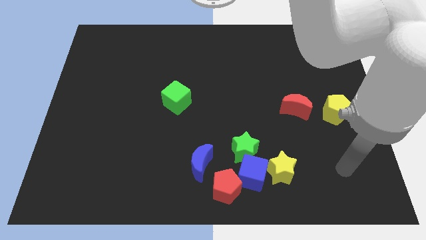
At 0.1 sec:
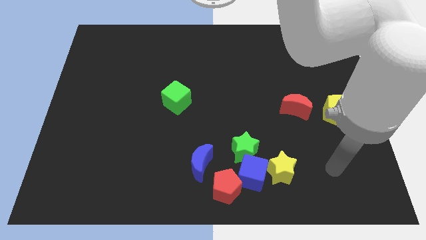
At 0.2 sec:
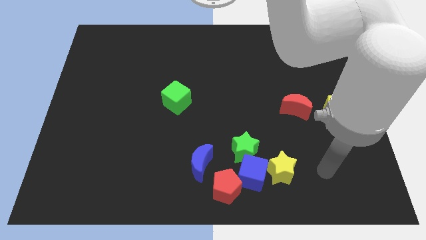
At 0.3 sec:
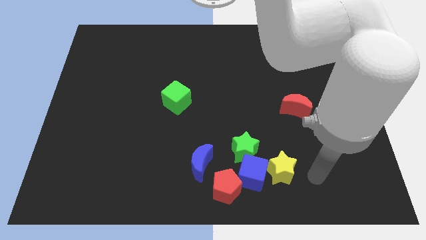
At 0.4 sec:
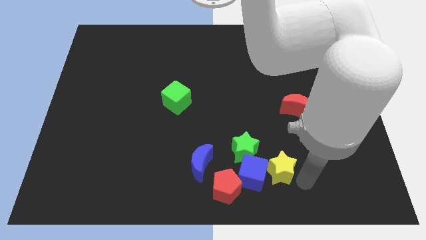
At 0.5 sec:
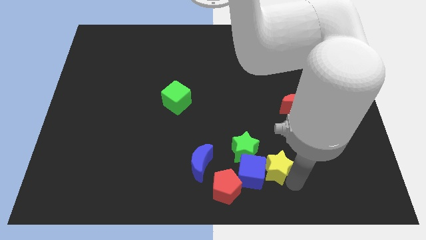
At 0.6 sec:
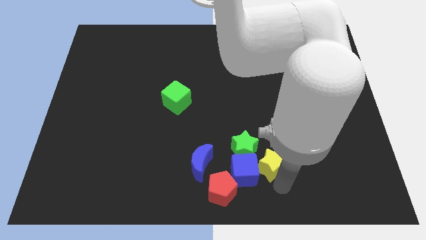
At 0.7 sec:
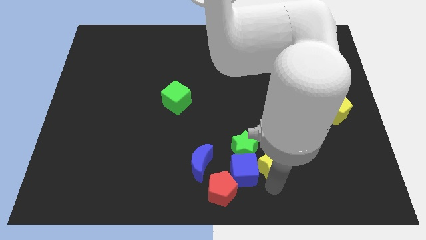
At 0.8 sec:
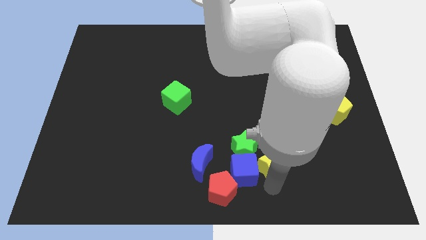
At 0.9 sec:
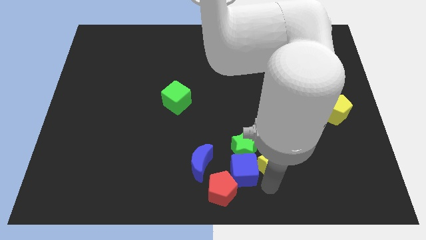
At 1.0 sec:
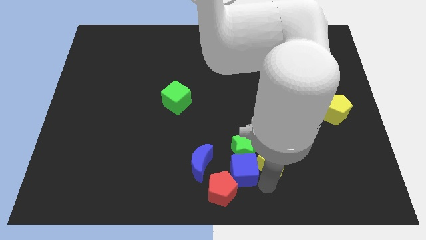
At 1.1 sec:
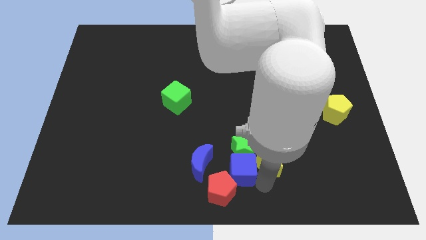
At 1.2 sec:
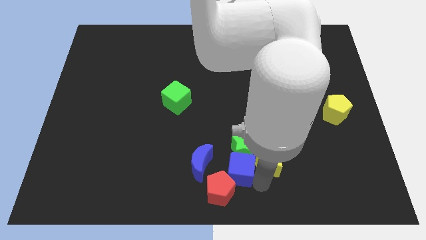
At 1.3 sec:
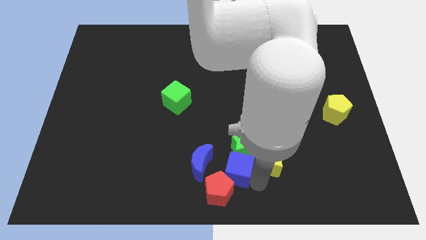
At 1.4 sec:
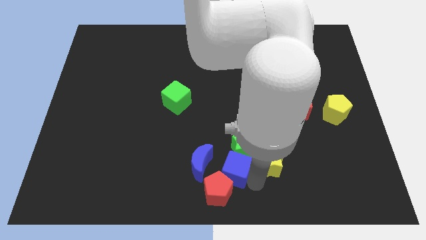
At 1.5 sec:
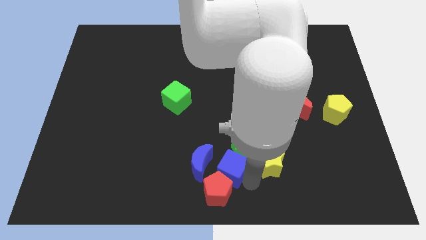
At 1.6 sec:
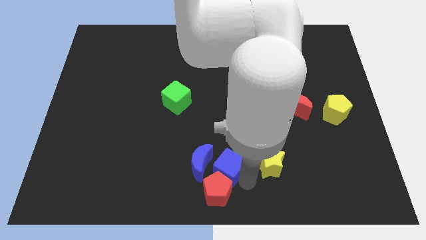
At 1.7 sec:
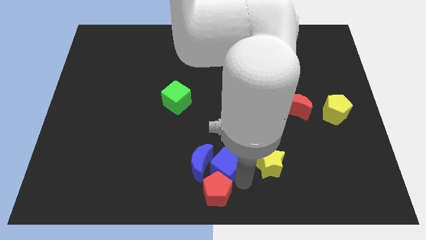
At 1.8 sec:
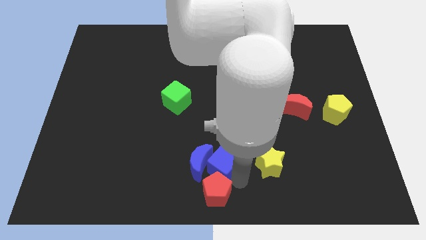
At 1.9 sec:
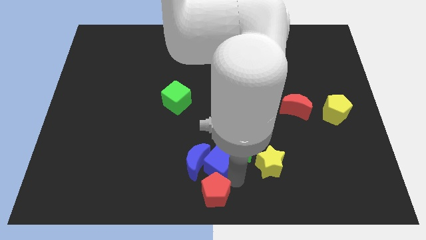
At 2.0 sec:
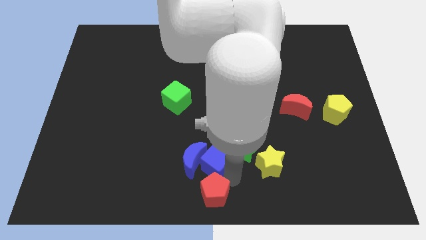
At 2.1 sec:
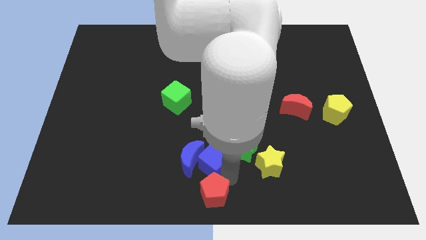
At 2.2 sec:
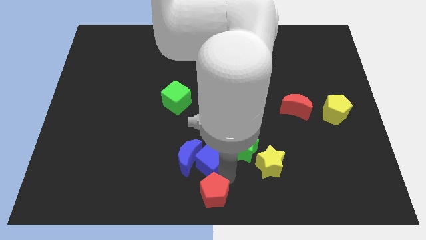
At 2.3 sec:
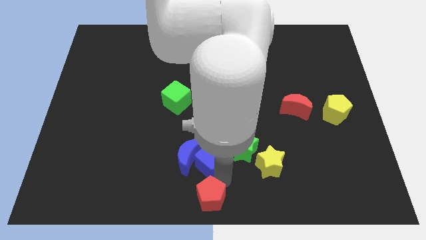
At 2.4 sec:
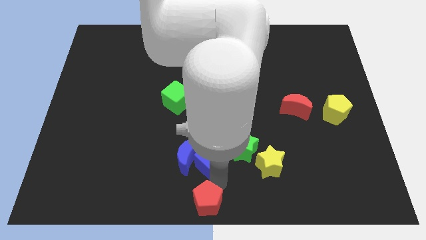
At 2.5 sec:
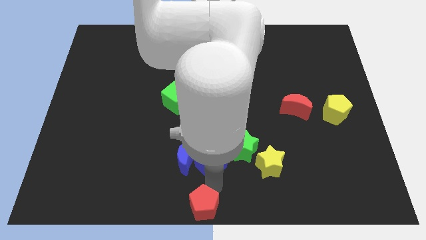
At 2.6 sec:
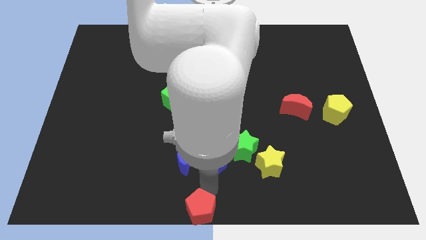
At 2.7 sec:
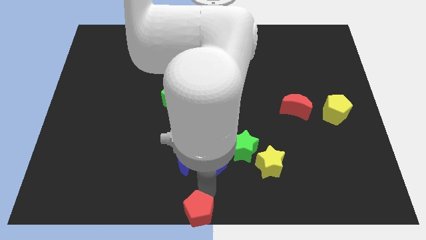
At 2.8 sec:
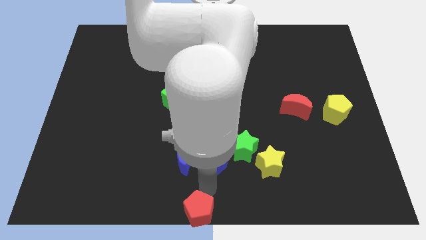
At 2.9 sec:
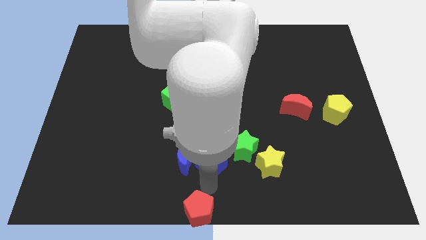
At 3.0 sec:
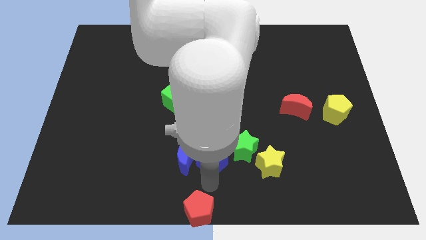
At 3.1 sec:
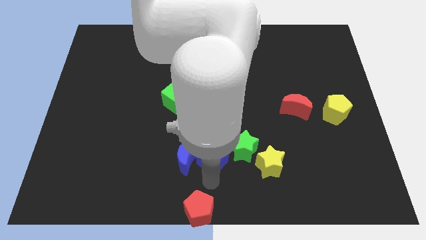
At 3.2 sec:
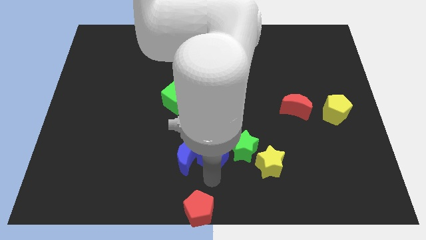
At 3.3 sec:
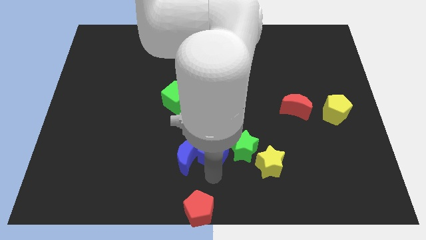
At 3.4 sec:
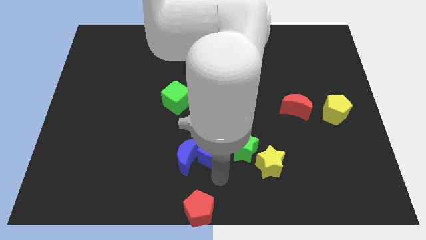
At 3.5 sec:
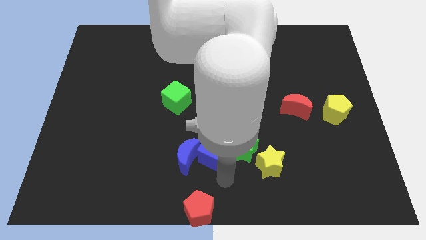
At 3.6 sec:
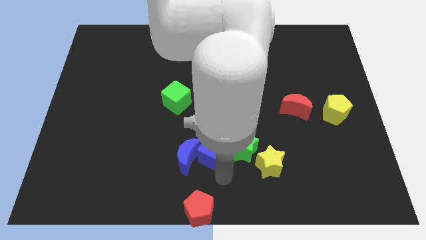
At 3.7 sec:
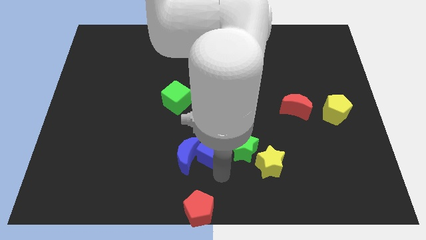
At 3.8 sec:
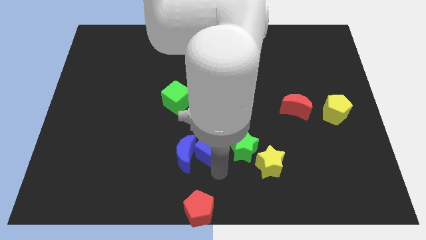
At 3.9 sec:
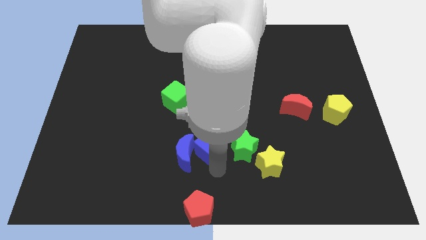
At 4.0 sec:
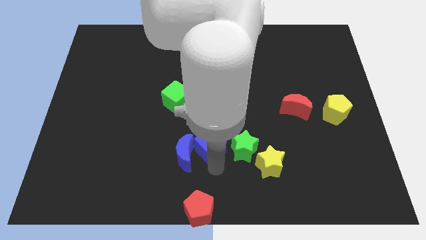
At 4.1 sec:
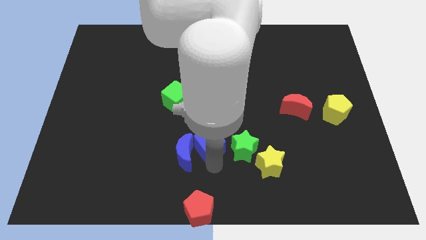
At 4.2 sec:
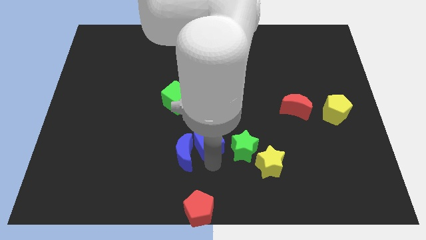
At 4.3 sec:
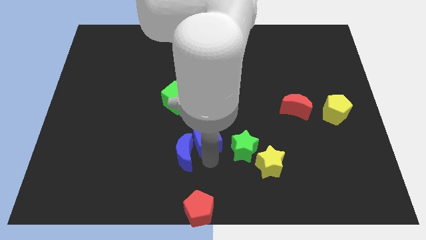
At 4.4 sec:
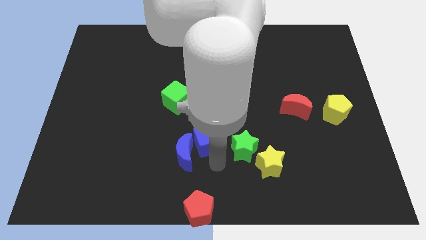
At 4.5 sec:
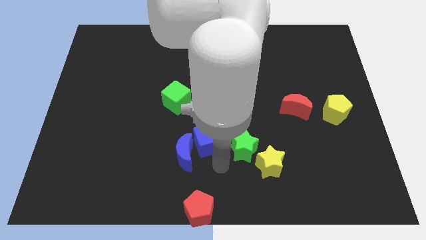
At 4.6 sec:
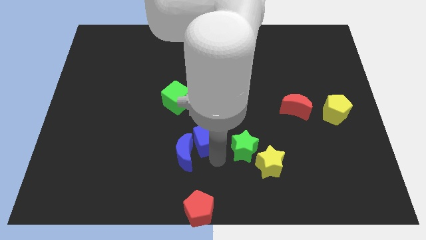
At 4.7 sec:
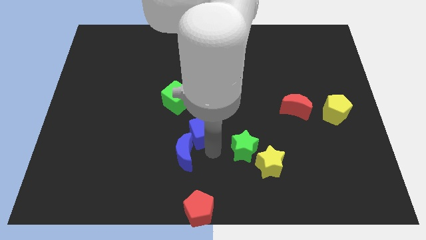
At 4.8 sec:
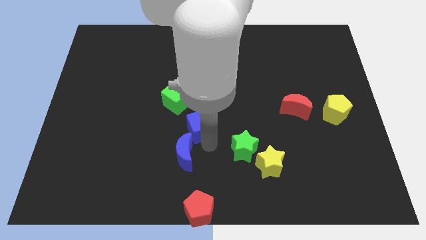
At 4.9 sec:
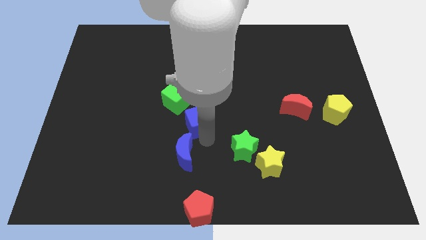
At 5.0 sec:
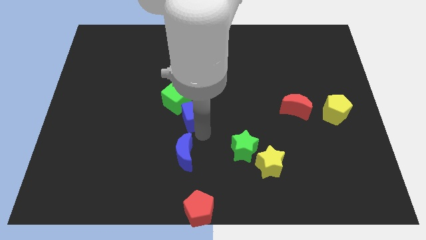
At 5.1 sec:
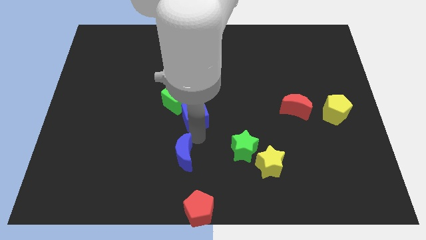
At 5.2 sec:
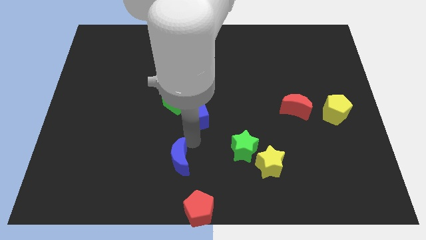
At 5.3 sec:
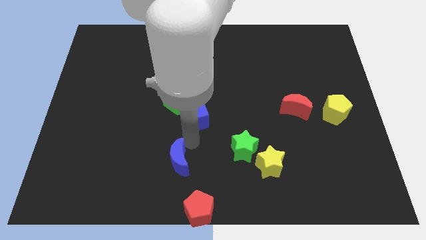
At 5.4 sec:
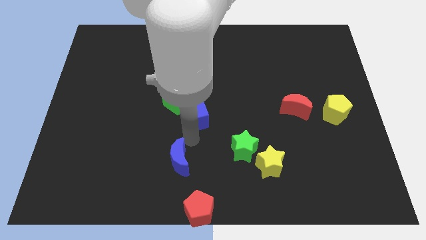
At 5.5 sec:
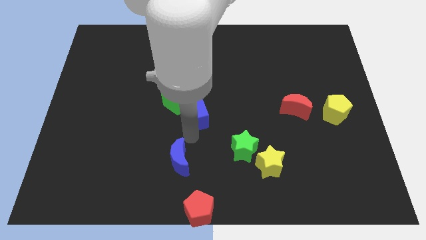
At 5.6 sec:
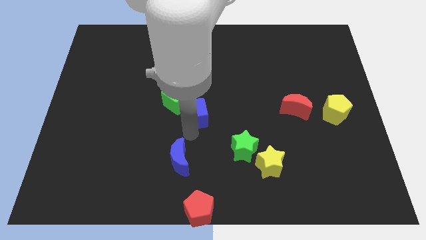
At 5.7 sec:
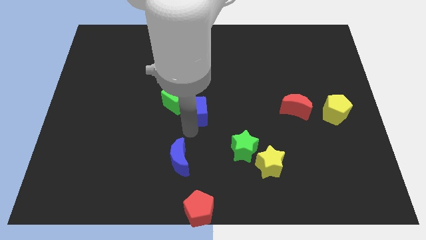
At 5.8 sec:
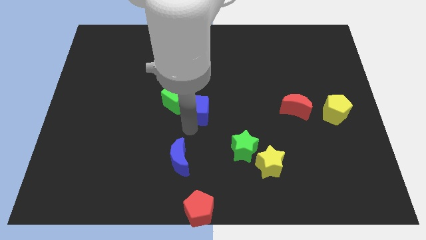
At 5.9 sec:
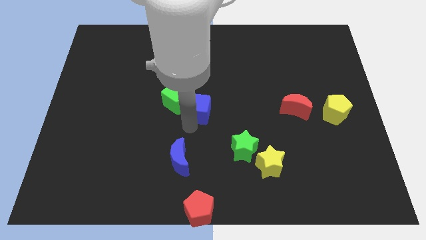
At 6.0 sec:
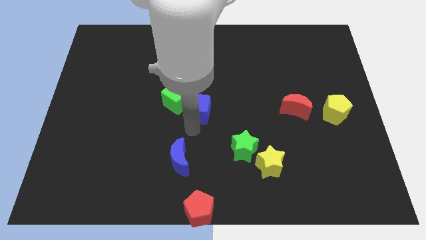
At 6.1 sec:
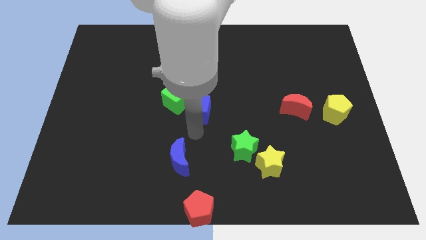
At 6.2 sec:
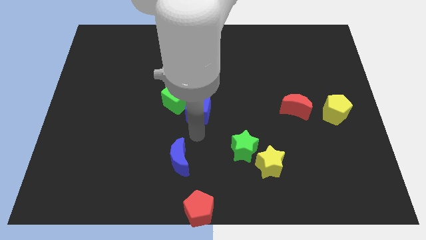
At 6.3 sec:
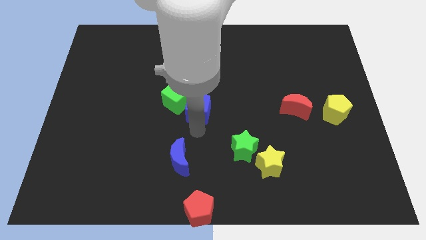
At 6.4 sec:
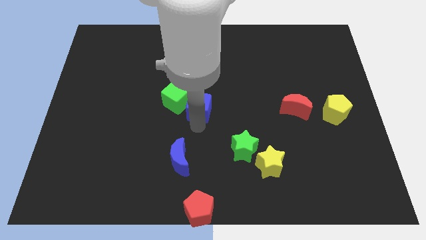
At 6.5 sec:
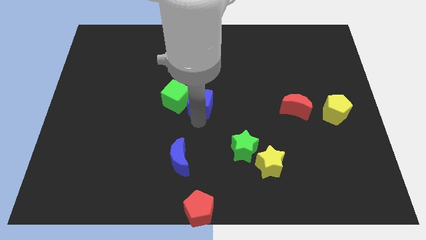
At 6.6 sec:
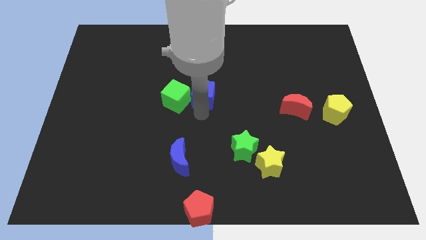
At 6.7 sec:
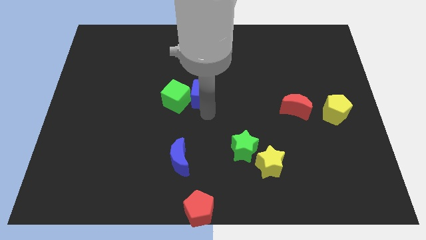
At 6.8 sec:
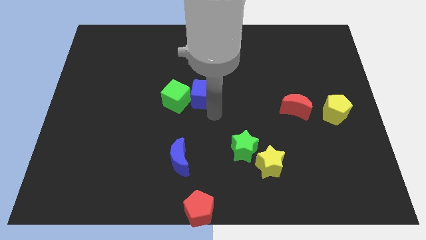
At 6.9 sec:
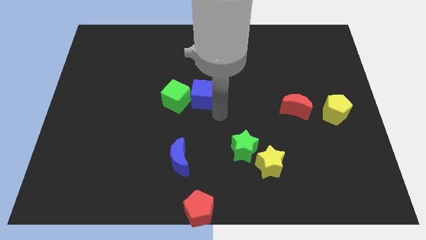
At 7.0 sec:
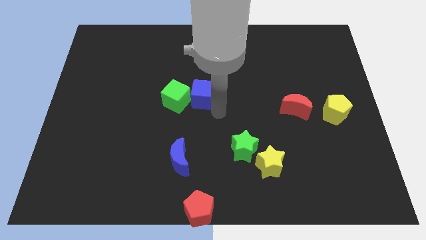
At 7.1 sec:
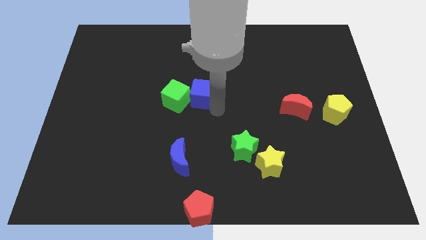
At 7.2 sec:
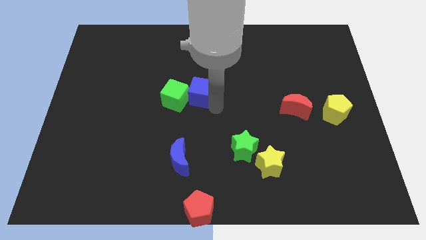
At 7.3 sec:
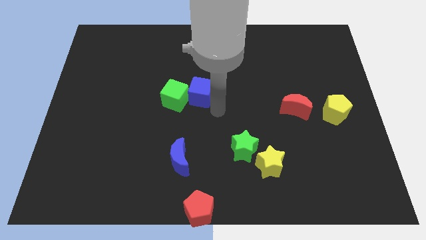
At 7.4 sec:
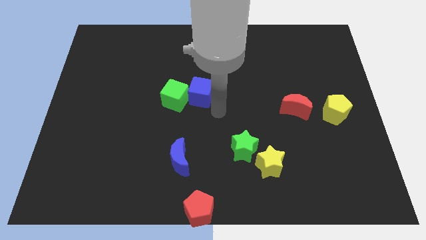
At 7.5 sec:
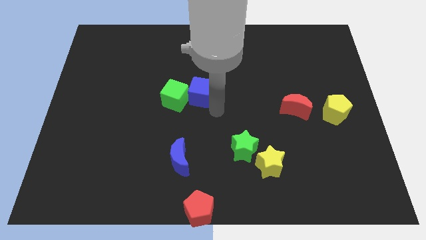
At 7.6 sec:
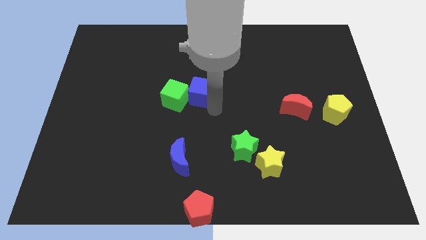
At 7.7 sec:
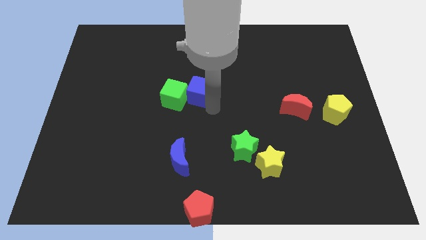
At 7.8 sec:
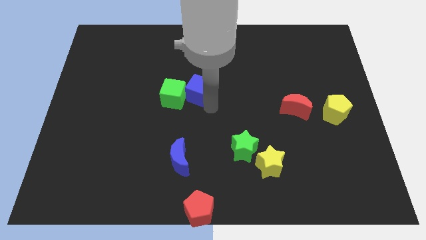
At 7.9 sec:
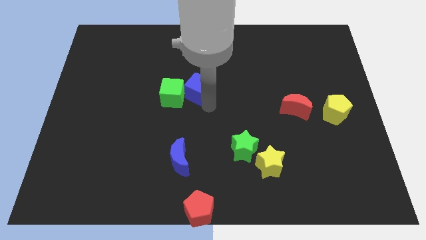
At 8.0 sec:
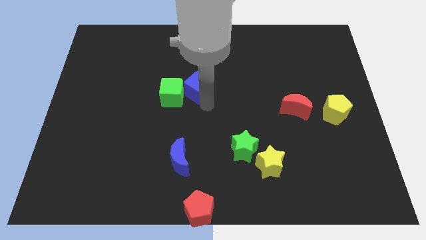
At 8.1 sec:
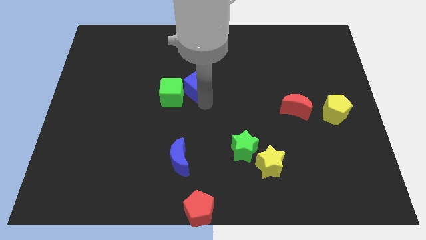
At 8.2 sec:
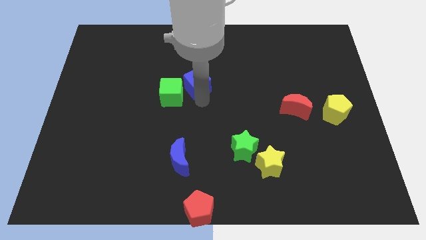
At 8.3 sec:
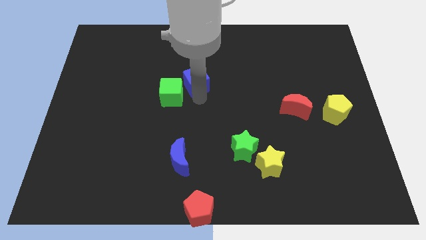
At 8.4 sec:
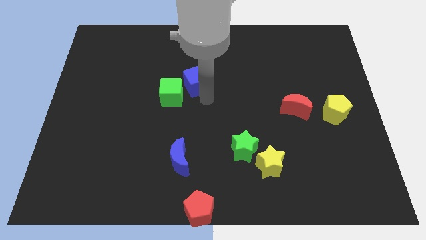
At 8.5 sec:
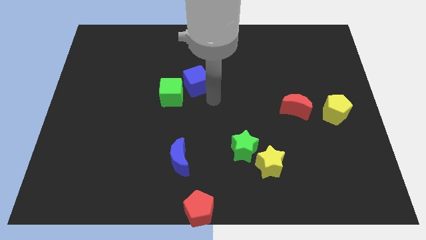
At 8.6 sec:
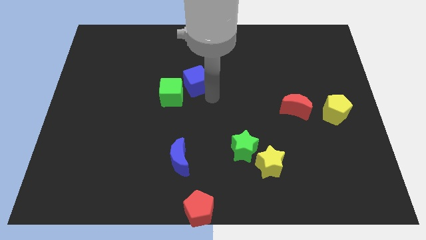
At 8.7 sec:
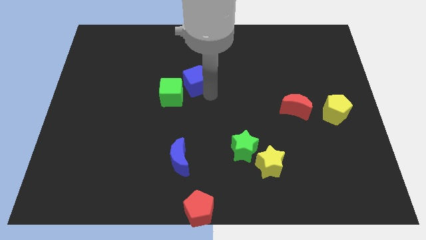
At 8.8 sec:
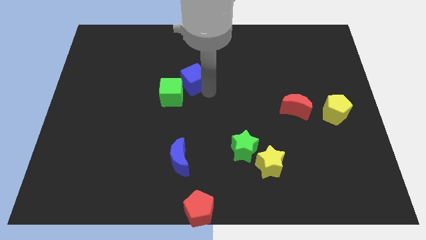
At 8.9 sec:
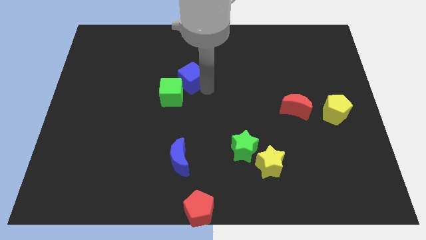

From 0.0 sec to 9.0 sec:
put the blue cube to the top of the green cube
